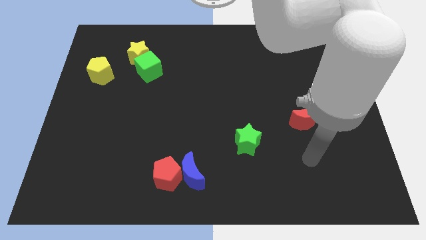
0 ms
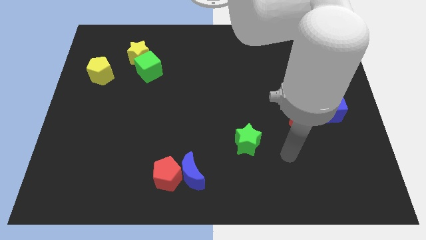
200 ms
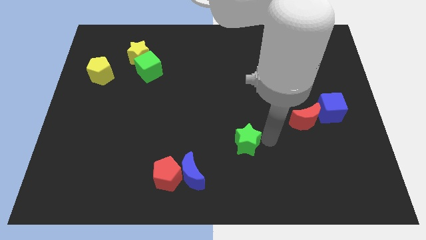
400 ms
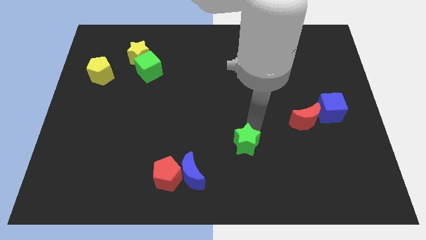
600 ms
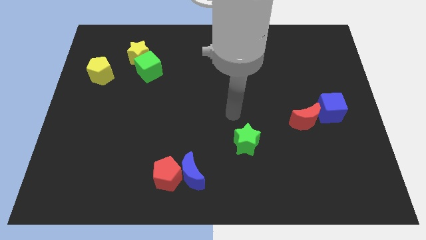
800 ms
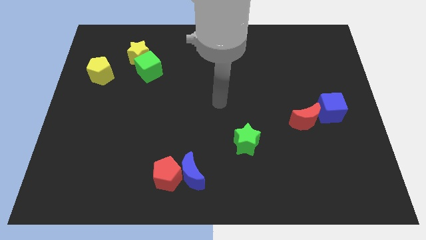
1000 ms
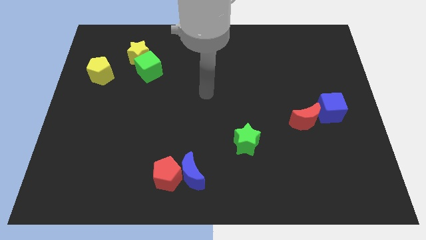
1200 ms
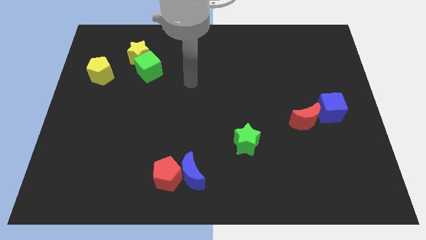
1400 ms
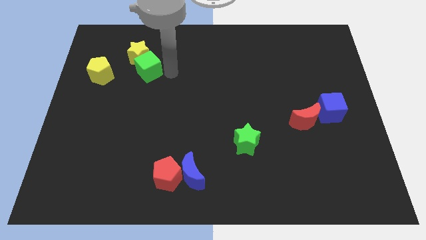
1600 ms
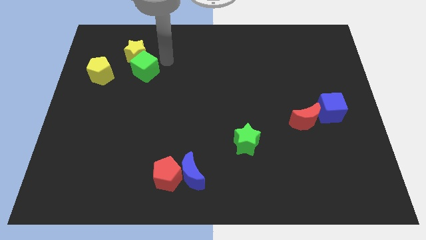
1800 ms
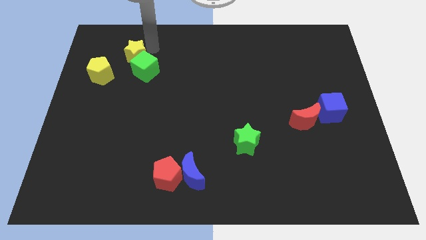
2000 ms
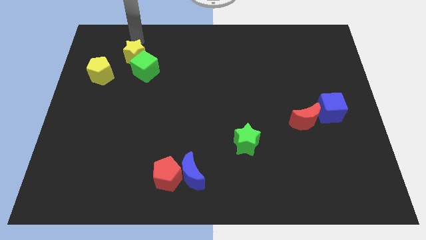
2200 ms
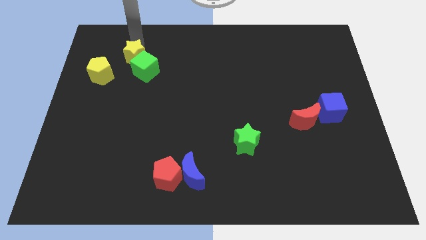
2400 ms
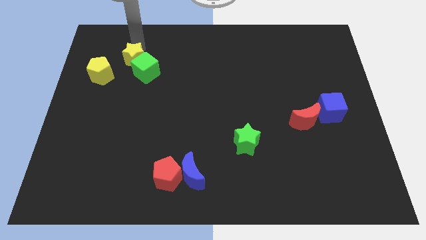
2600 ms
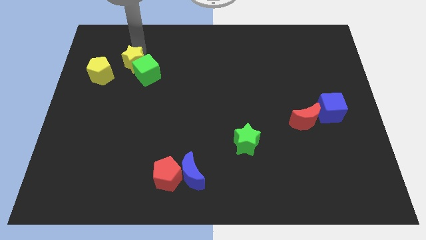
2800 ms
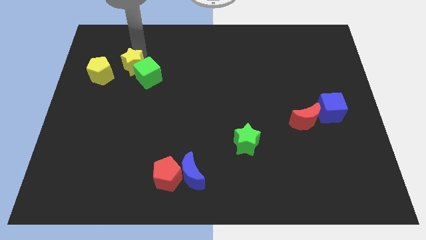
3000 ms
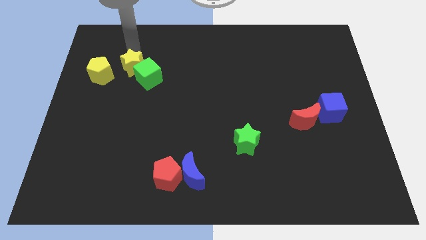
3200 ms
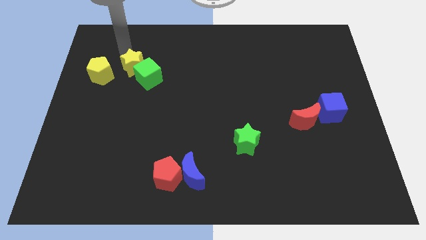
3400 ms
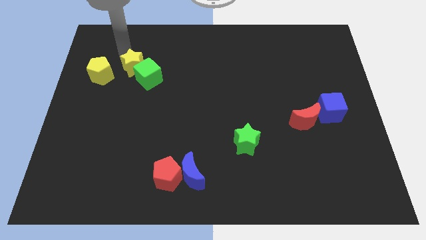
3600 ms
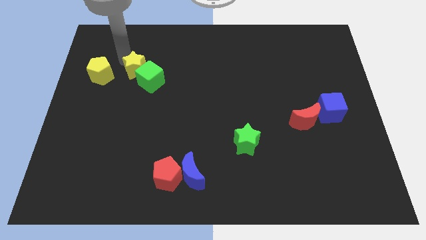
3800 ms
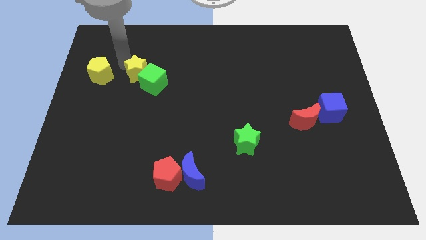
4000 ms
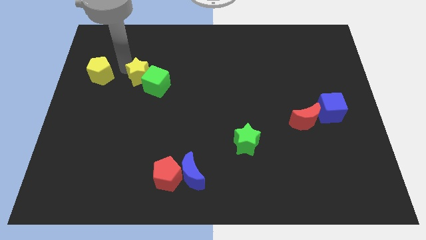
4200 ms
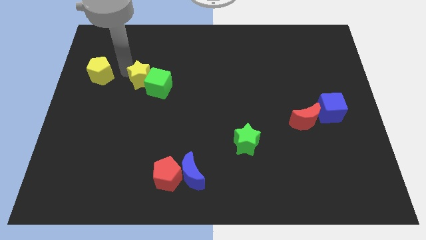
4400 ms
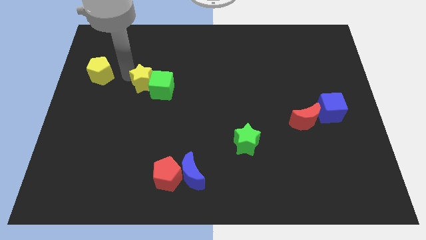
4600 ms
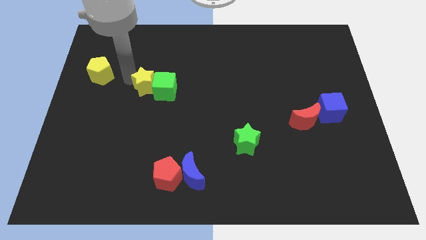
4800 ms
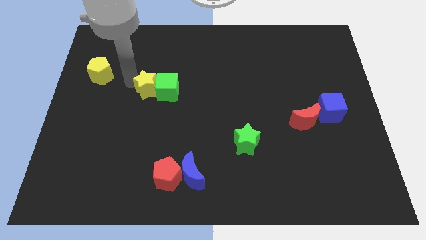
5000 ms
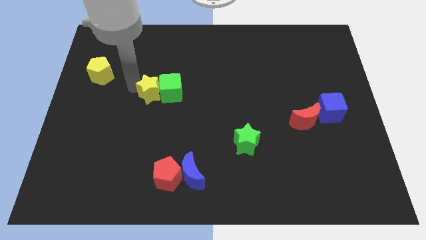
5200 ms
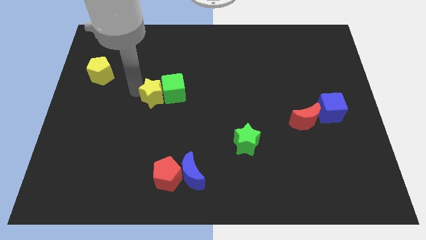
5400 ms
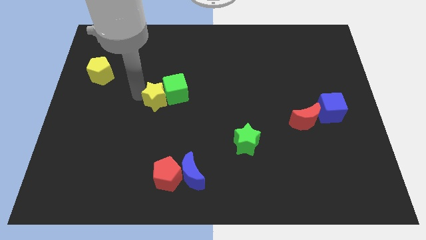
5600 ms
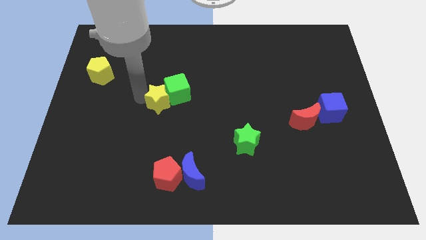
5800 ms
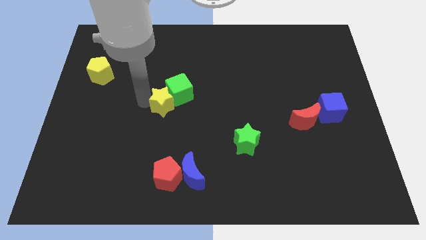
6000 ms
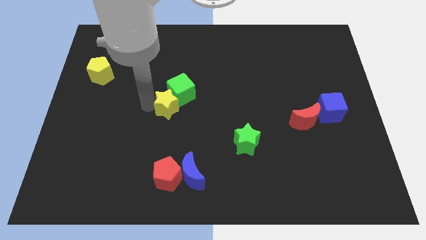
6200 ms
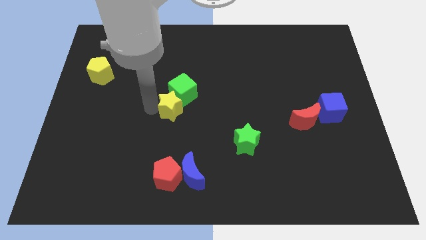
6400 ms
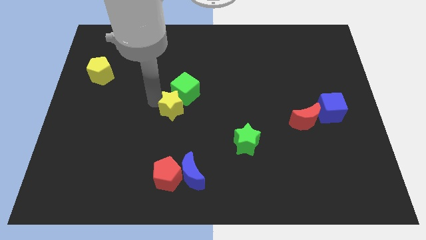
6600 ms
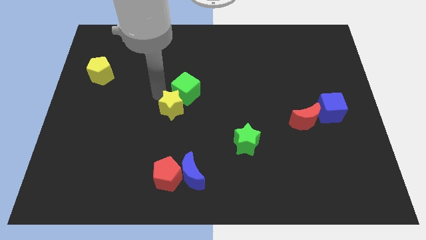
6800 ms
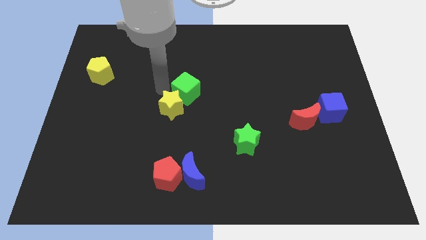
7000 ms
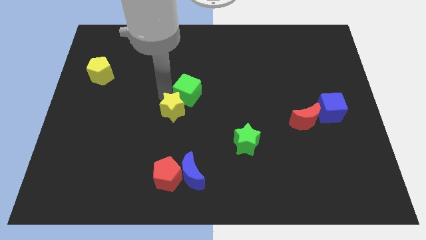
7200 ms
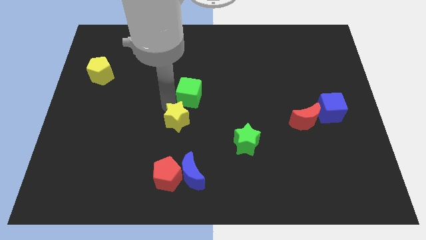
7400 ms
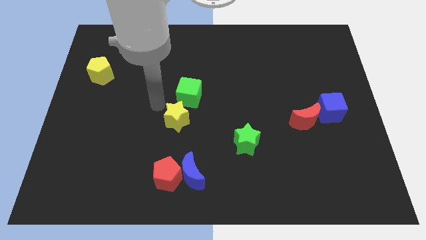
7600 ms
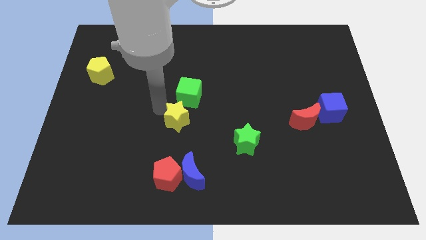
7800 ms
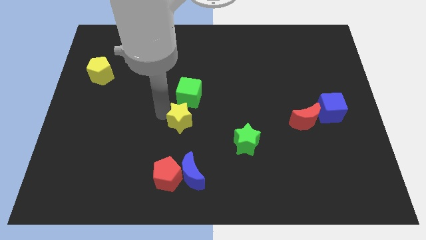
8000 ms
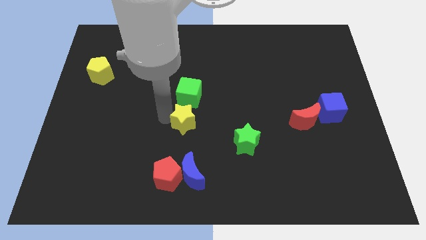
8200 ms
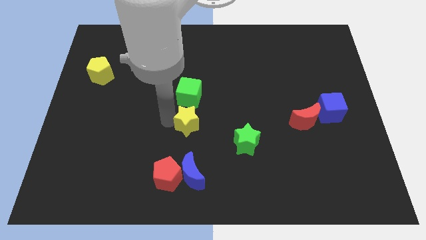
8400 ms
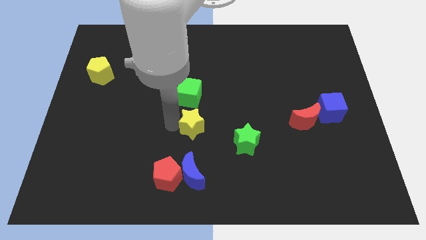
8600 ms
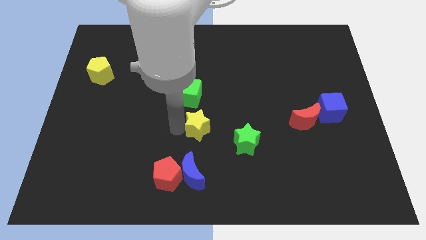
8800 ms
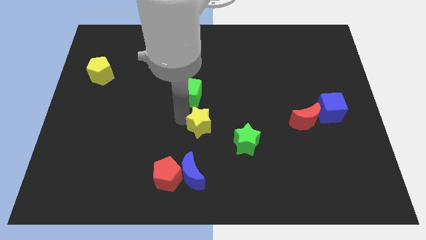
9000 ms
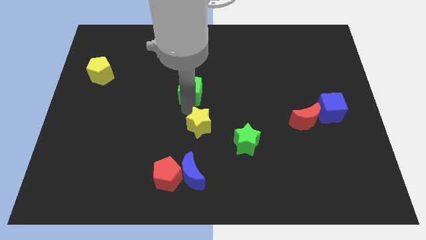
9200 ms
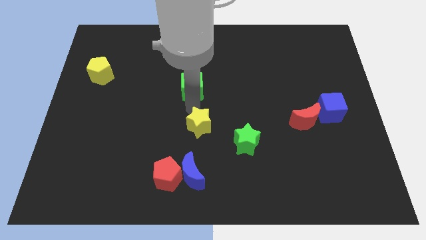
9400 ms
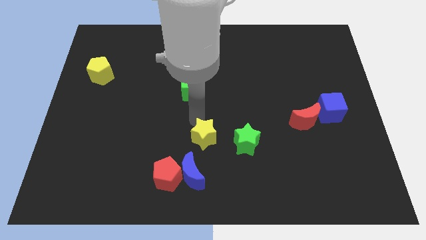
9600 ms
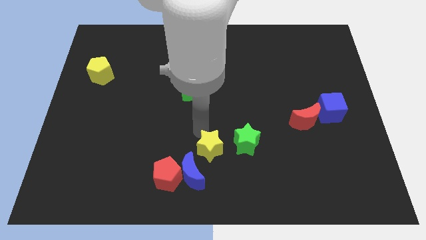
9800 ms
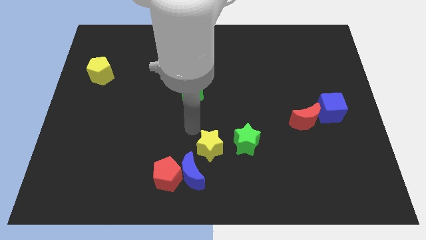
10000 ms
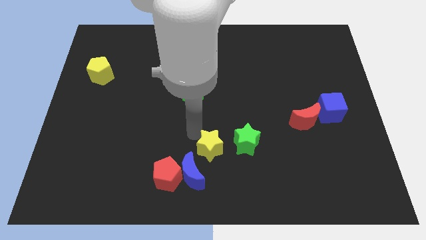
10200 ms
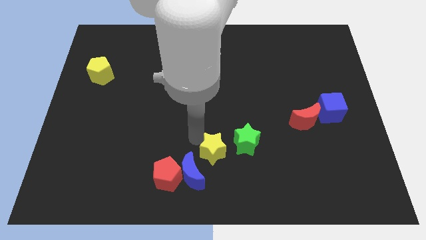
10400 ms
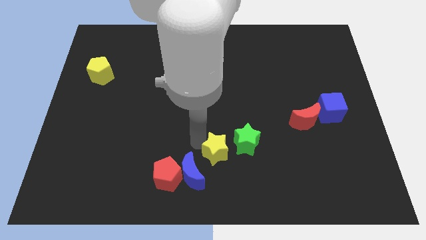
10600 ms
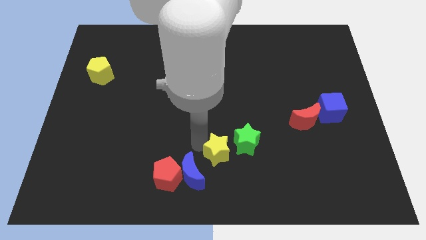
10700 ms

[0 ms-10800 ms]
move the yellow star to the bottom side

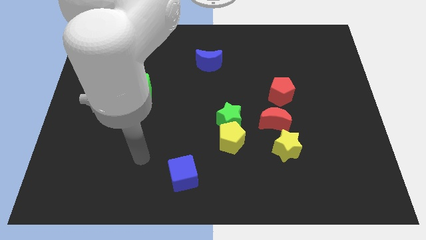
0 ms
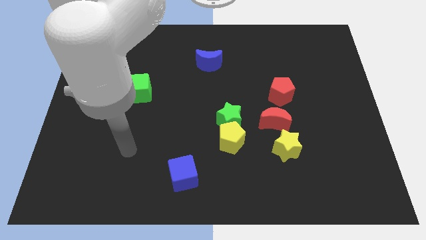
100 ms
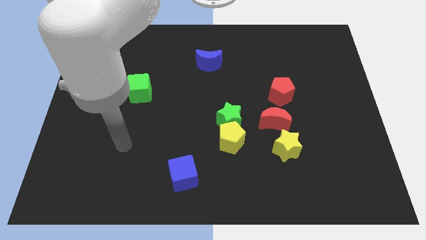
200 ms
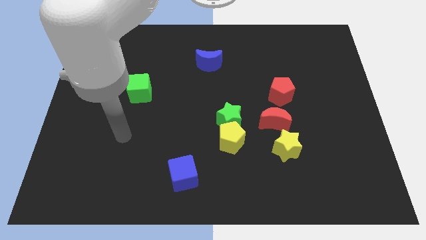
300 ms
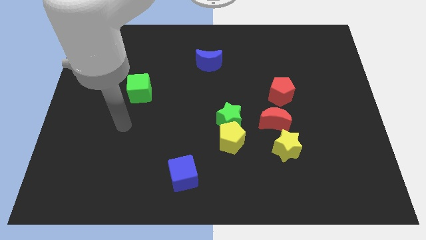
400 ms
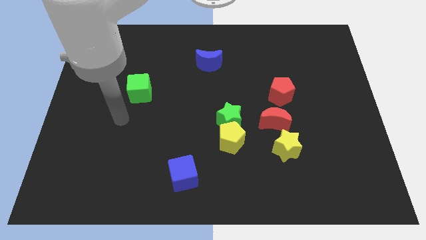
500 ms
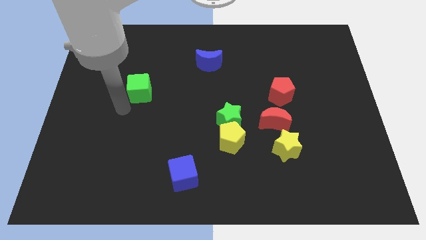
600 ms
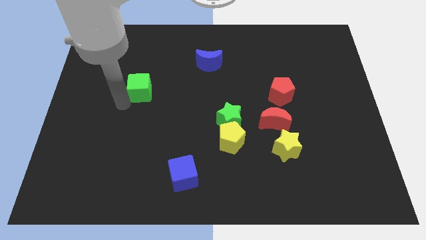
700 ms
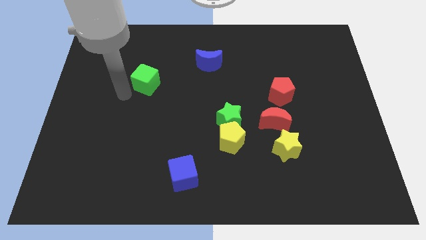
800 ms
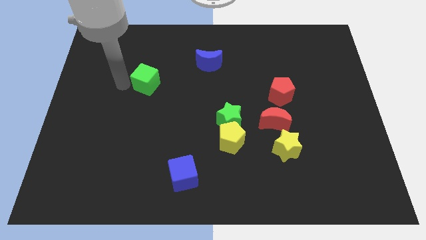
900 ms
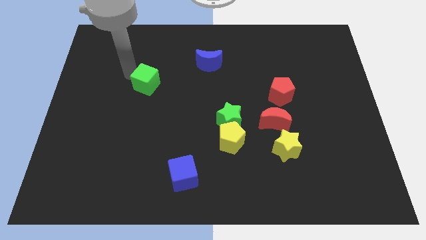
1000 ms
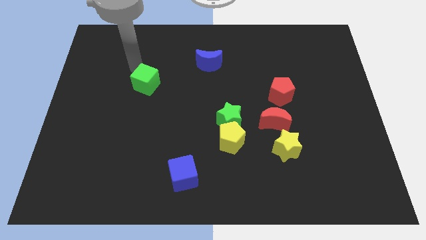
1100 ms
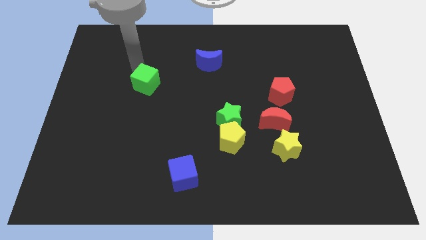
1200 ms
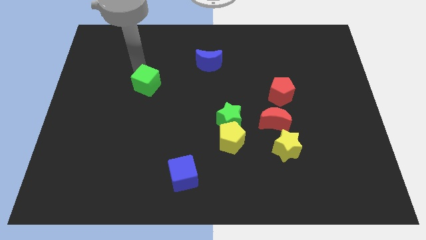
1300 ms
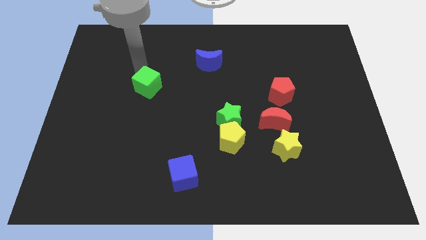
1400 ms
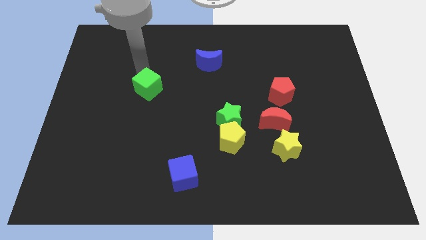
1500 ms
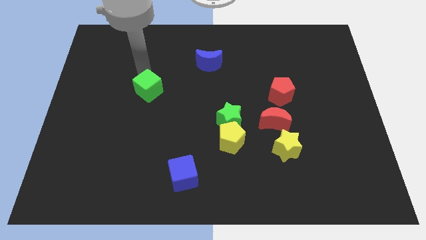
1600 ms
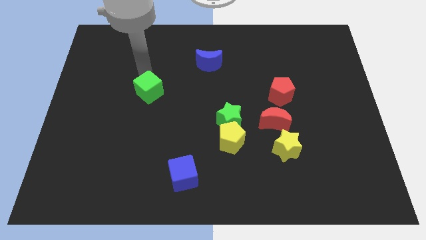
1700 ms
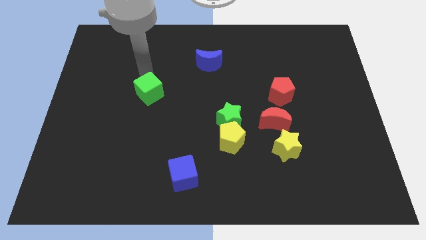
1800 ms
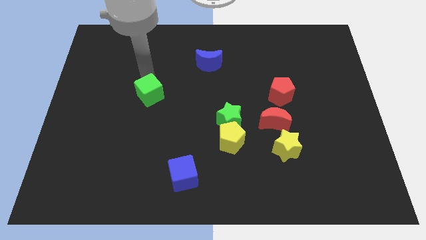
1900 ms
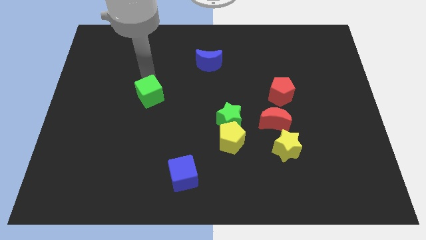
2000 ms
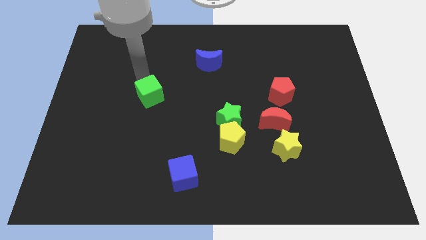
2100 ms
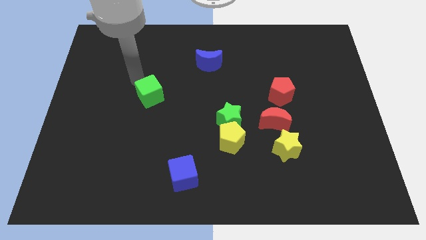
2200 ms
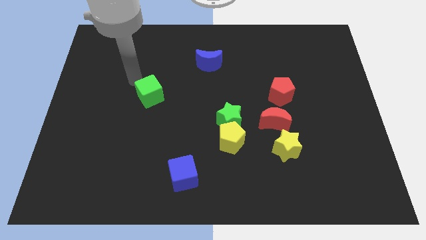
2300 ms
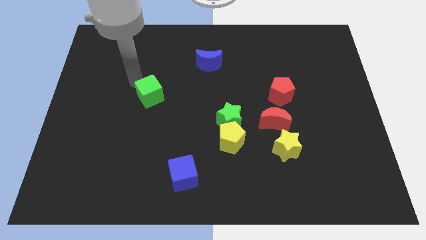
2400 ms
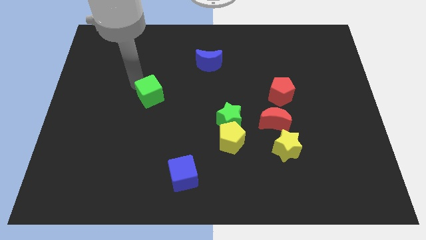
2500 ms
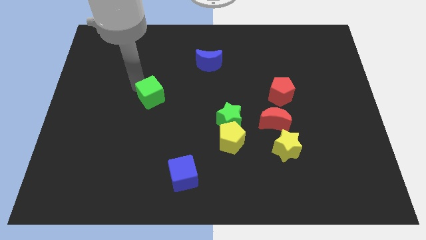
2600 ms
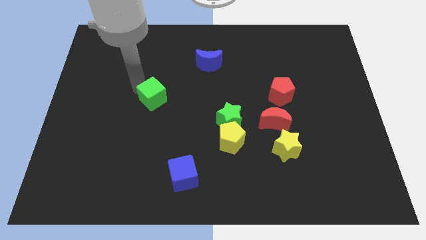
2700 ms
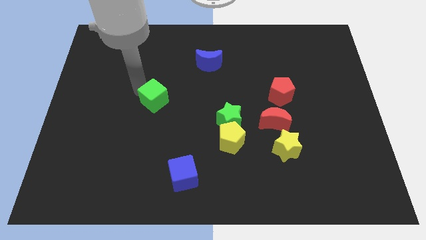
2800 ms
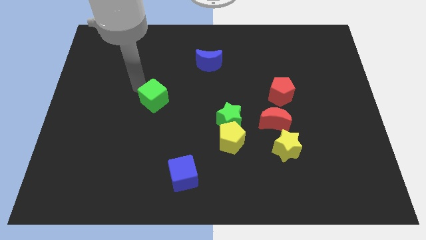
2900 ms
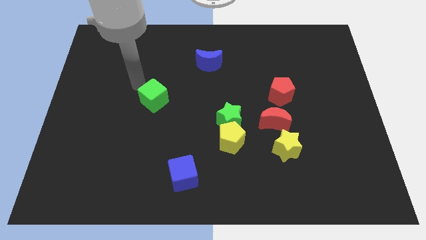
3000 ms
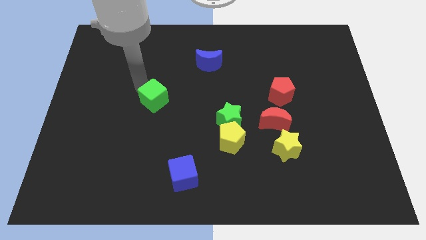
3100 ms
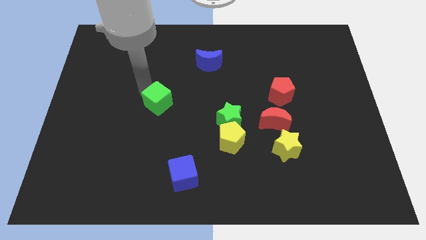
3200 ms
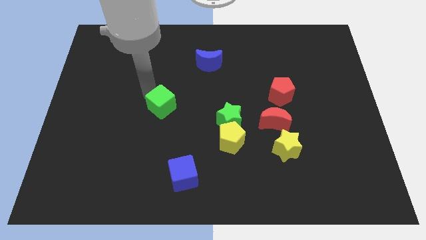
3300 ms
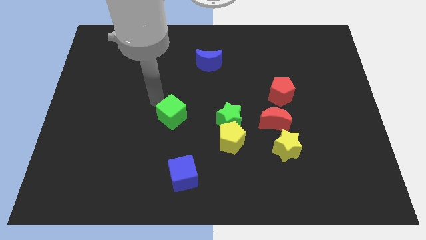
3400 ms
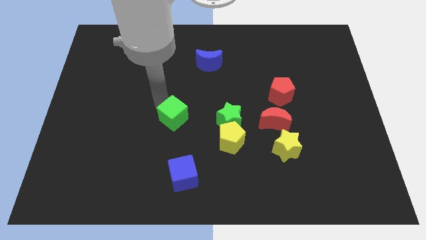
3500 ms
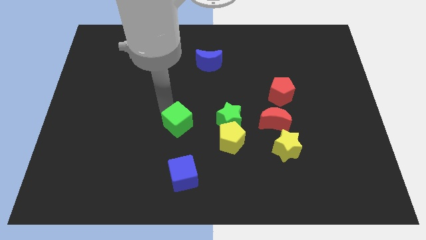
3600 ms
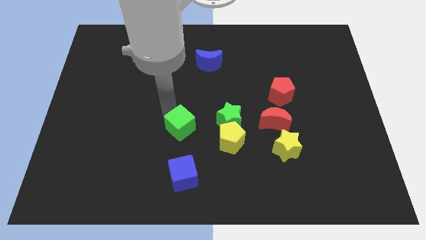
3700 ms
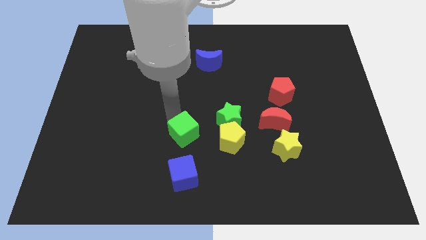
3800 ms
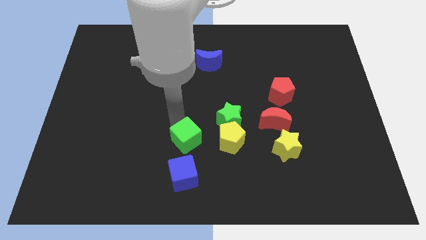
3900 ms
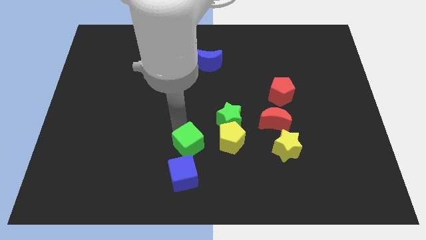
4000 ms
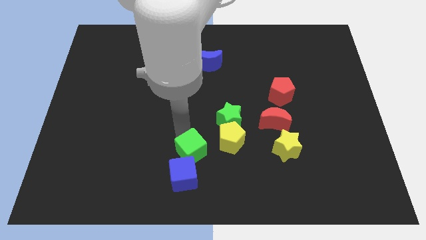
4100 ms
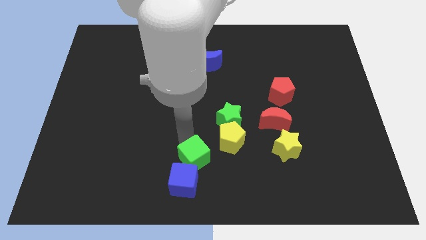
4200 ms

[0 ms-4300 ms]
slide the green cube to the bottom side
